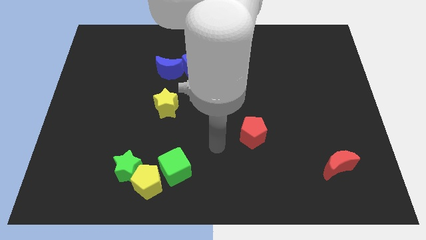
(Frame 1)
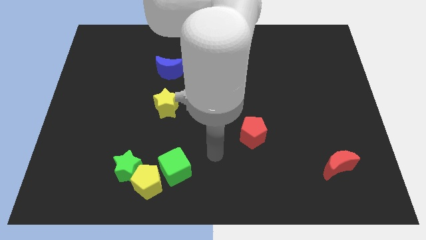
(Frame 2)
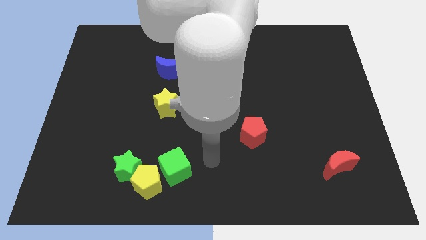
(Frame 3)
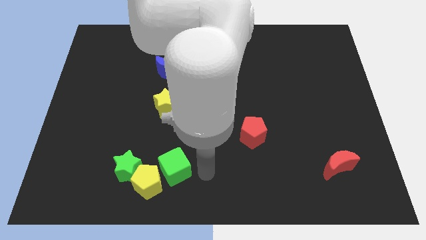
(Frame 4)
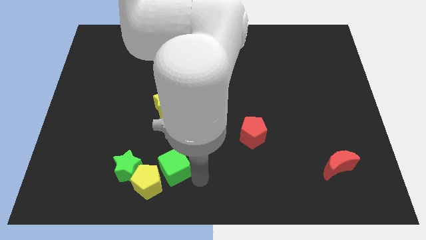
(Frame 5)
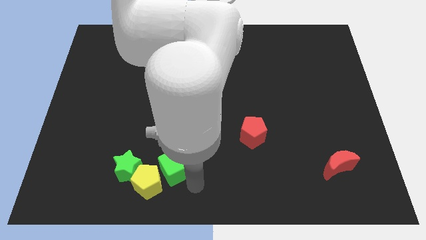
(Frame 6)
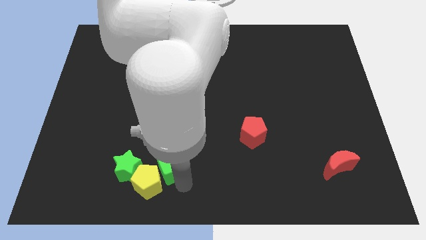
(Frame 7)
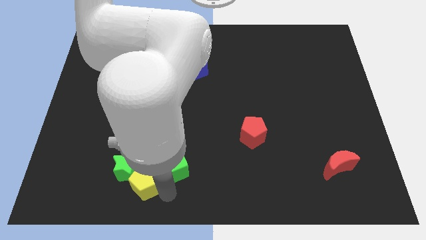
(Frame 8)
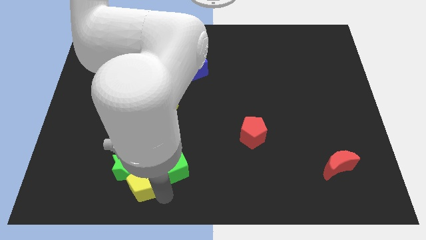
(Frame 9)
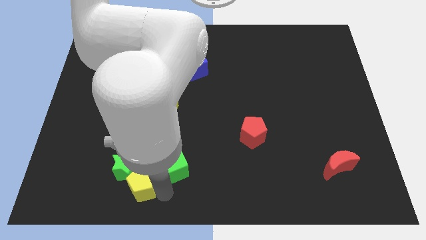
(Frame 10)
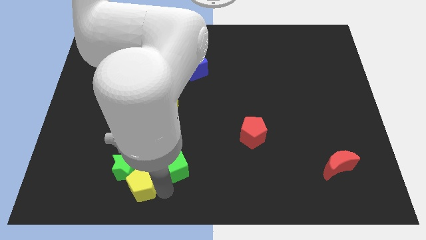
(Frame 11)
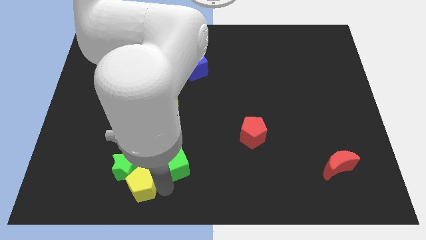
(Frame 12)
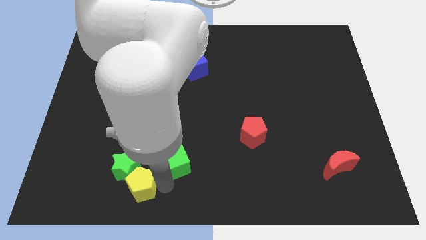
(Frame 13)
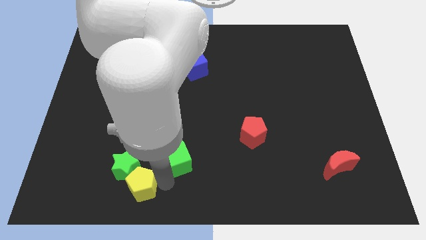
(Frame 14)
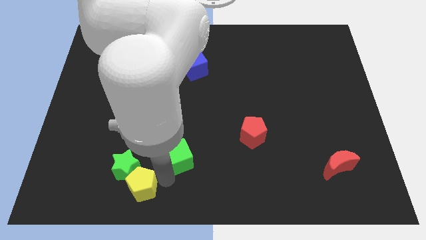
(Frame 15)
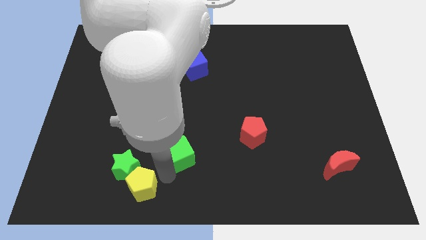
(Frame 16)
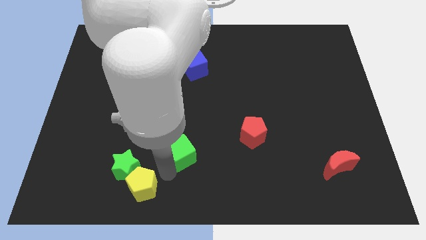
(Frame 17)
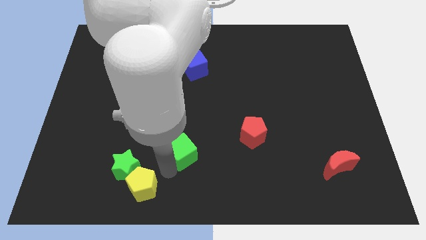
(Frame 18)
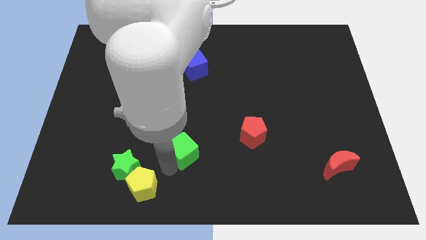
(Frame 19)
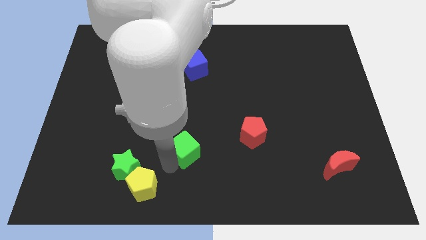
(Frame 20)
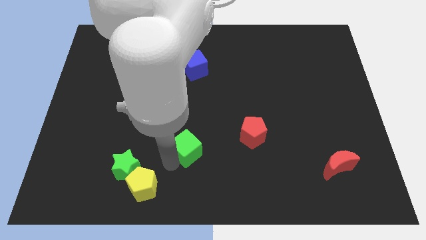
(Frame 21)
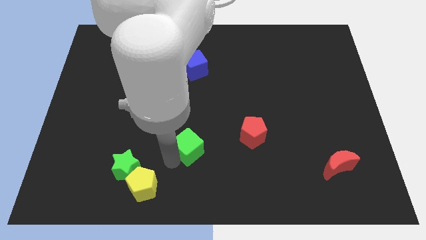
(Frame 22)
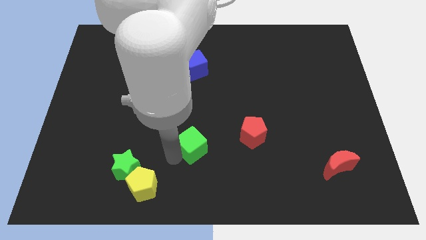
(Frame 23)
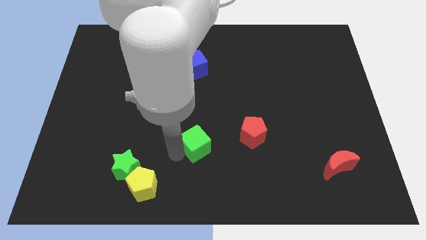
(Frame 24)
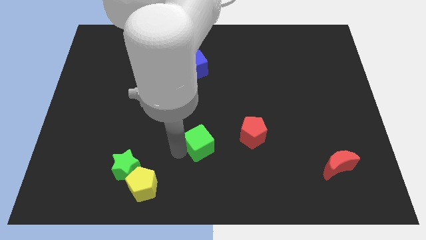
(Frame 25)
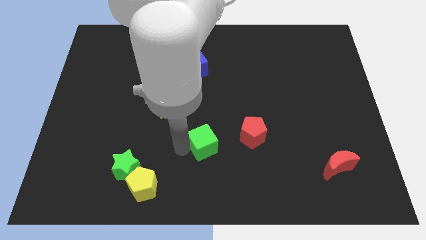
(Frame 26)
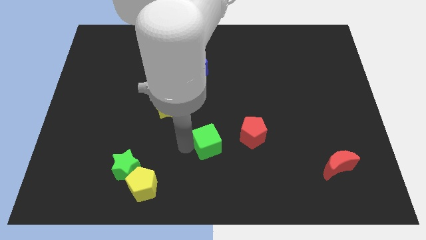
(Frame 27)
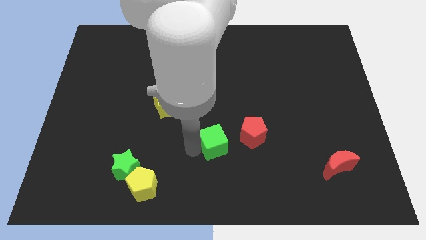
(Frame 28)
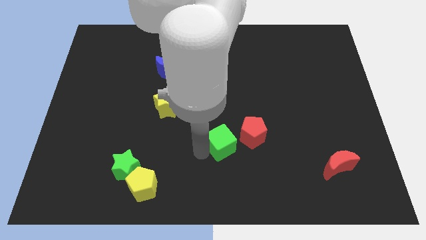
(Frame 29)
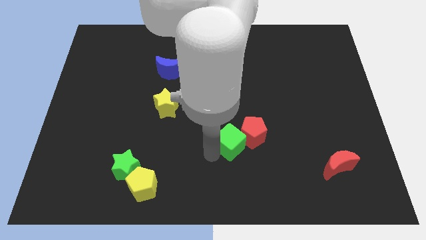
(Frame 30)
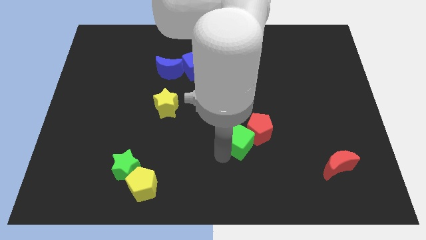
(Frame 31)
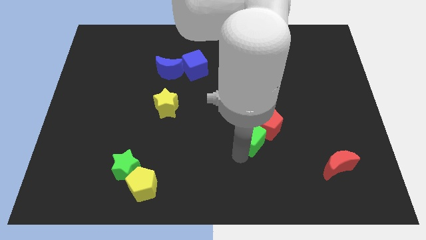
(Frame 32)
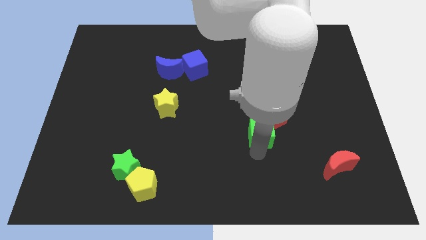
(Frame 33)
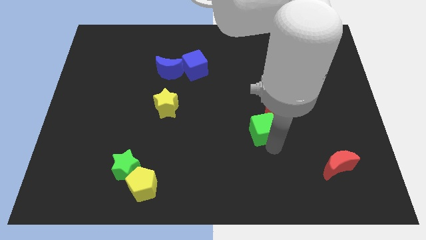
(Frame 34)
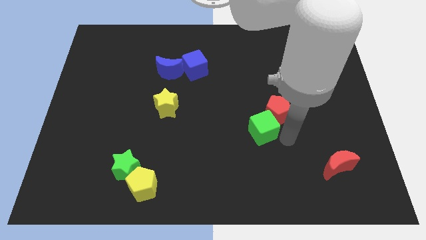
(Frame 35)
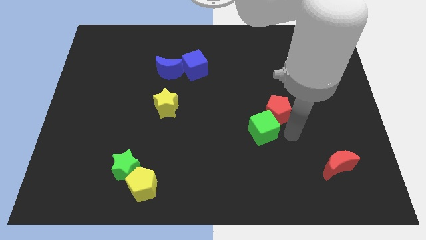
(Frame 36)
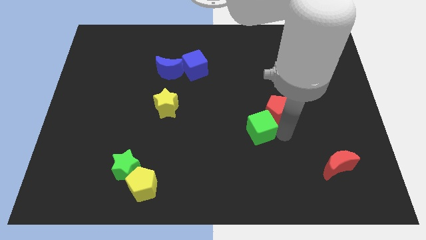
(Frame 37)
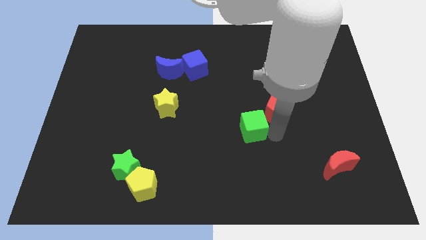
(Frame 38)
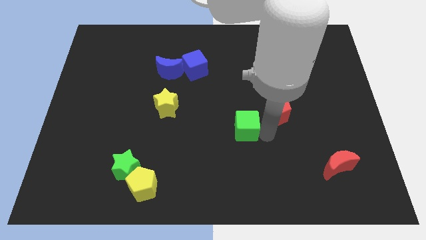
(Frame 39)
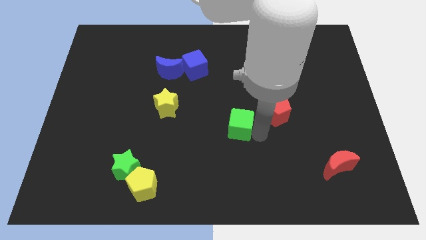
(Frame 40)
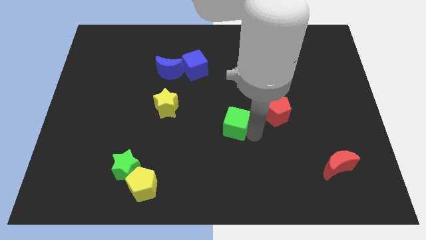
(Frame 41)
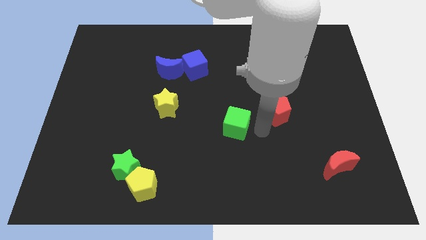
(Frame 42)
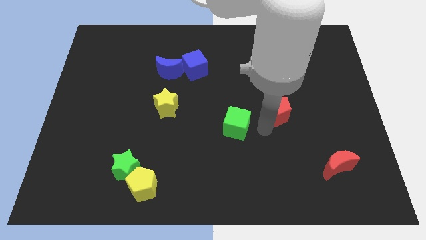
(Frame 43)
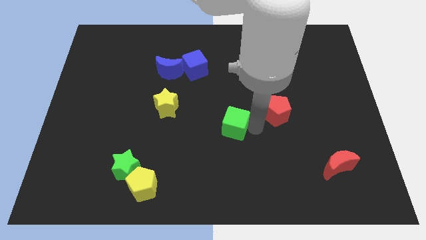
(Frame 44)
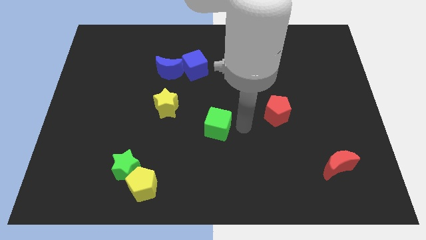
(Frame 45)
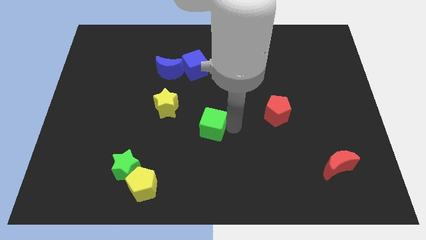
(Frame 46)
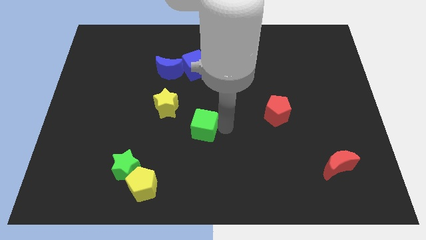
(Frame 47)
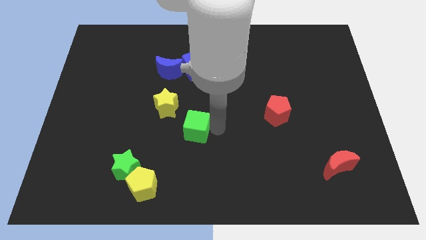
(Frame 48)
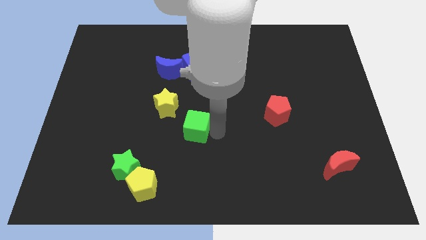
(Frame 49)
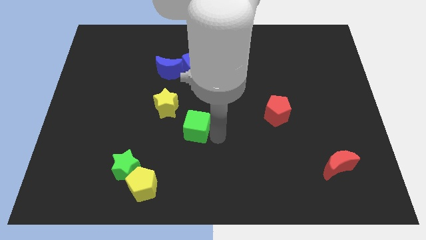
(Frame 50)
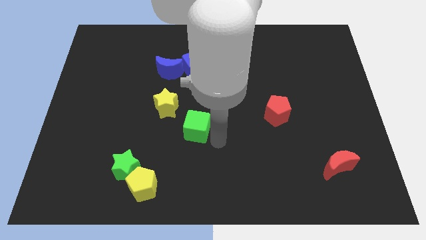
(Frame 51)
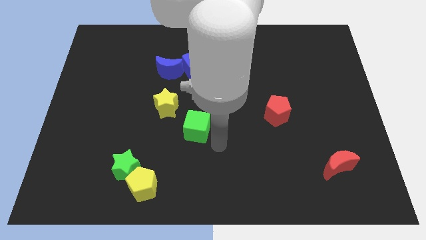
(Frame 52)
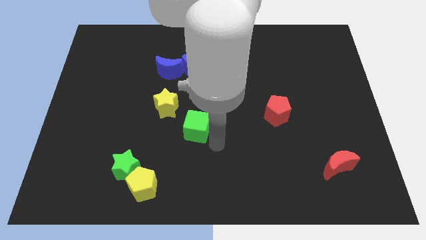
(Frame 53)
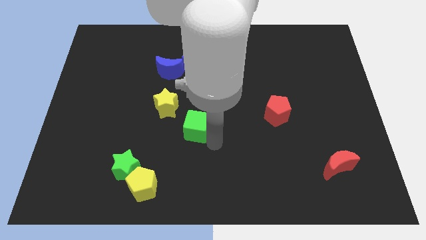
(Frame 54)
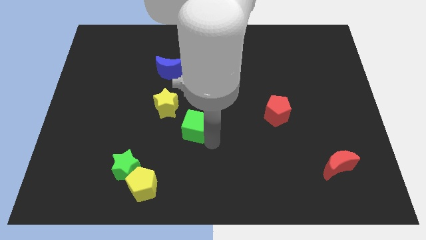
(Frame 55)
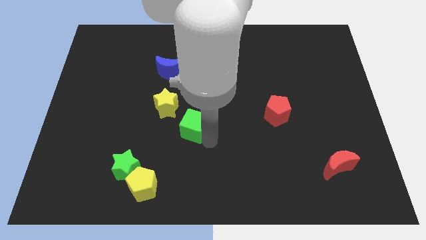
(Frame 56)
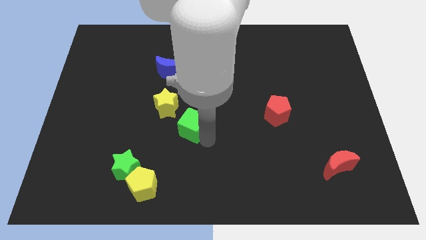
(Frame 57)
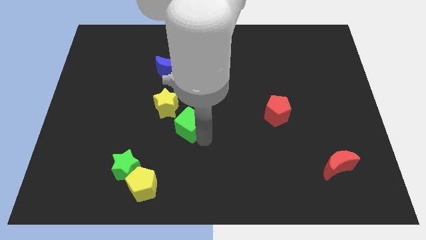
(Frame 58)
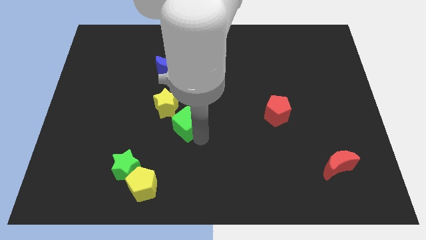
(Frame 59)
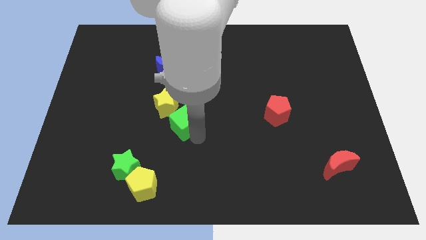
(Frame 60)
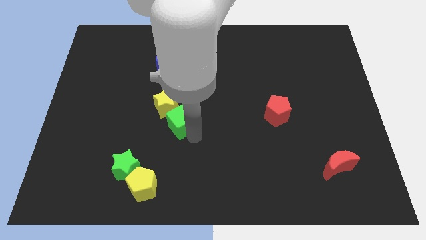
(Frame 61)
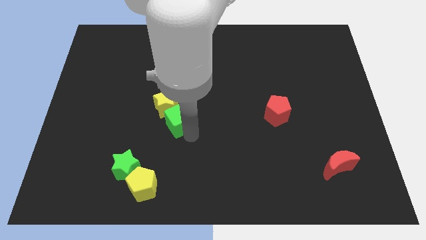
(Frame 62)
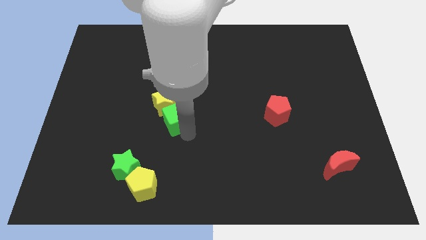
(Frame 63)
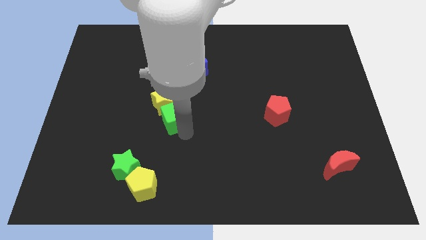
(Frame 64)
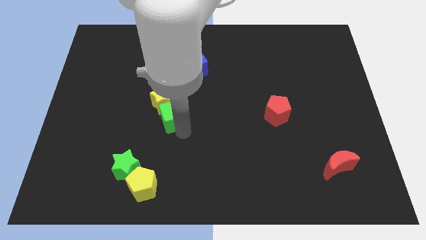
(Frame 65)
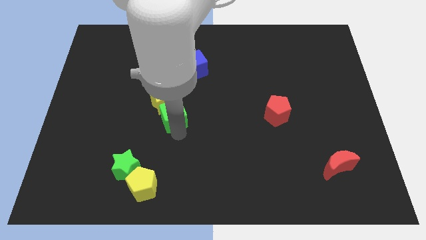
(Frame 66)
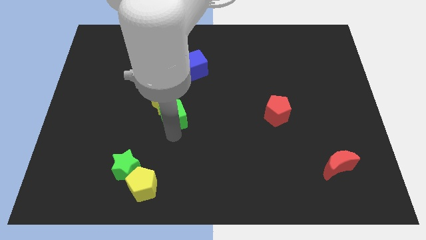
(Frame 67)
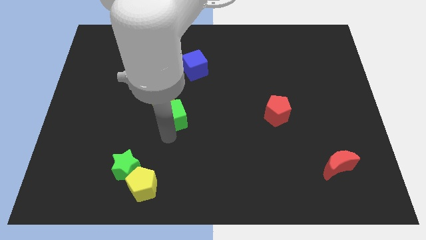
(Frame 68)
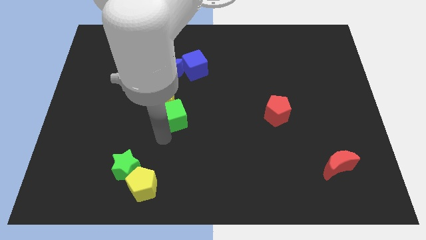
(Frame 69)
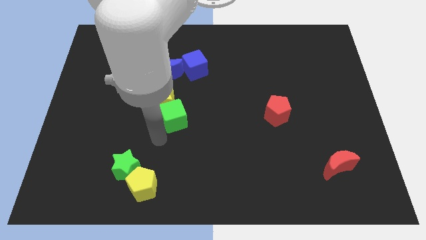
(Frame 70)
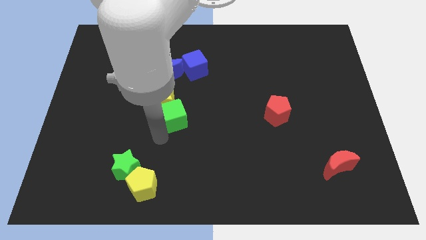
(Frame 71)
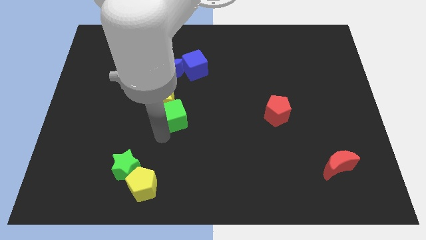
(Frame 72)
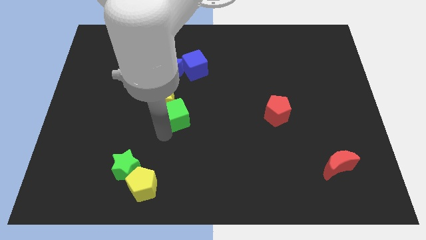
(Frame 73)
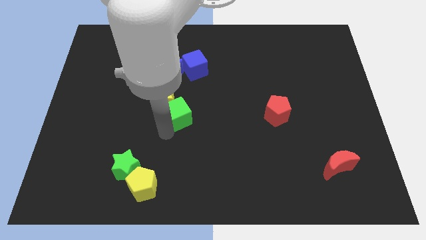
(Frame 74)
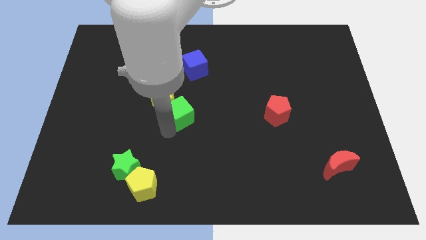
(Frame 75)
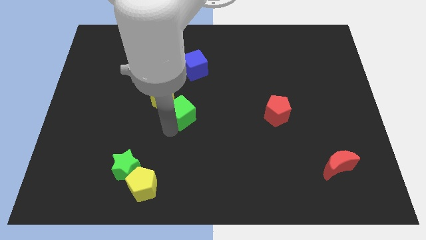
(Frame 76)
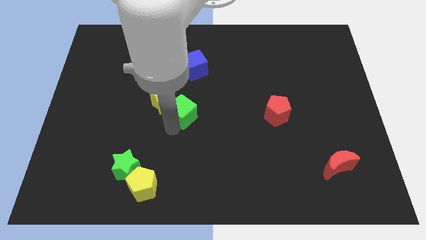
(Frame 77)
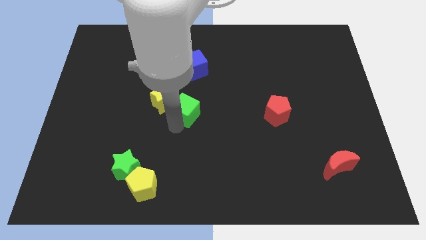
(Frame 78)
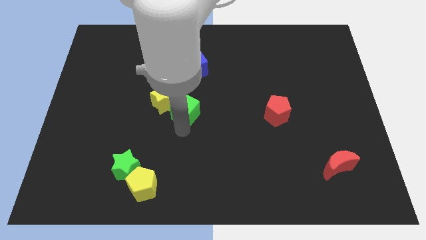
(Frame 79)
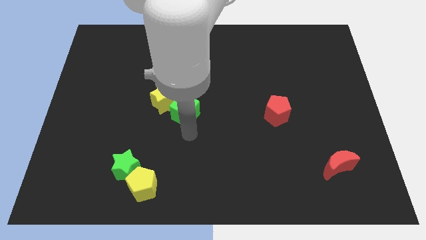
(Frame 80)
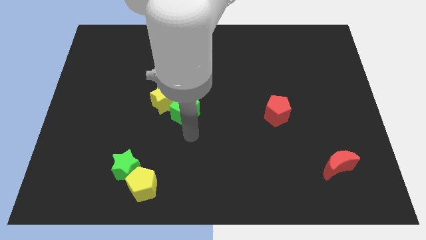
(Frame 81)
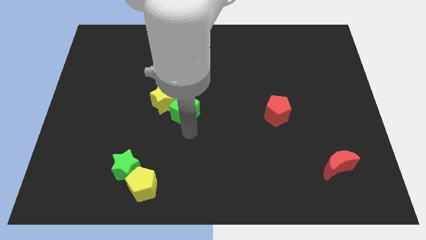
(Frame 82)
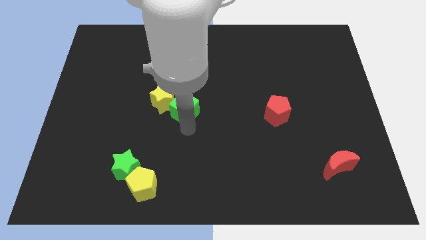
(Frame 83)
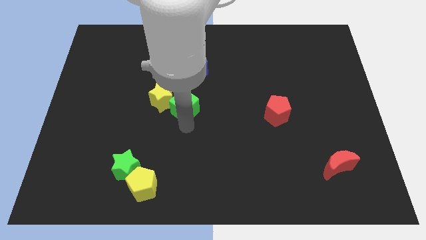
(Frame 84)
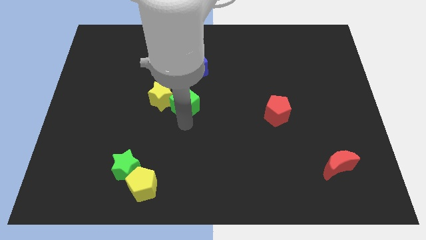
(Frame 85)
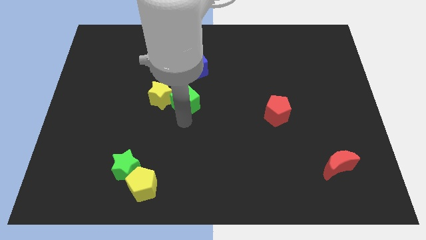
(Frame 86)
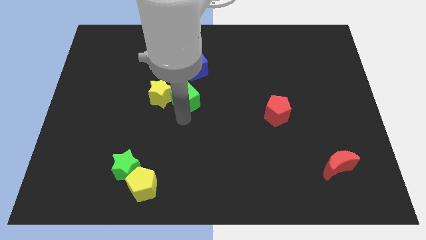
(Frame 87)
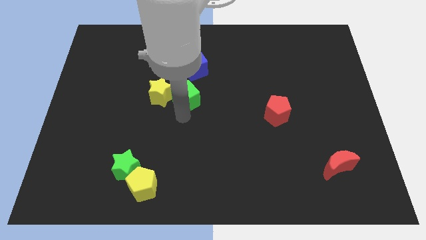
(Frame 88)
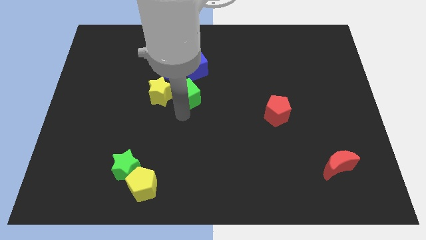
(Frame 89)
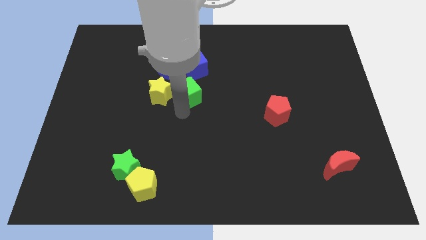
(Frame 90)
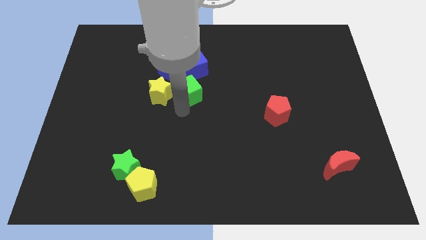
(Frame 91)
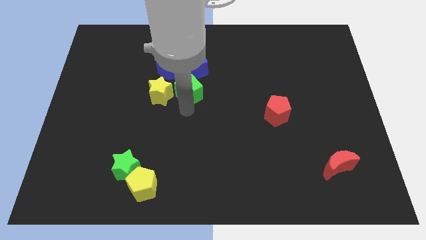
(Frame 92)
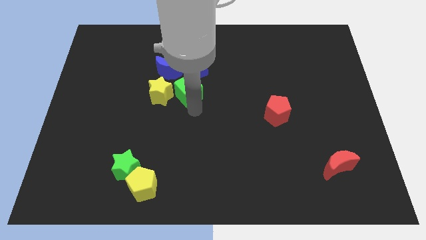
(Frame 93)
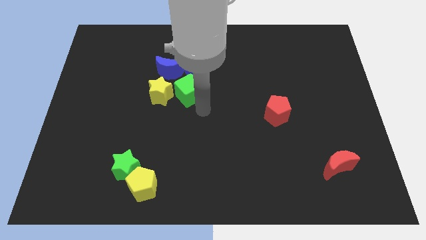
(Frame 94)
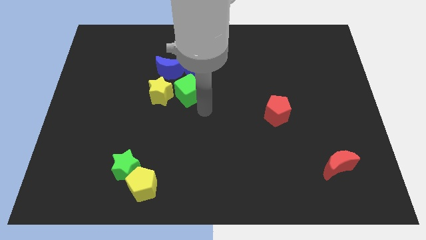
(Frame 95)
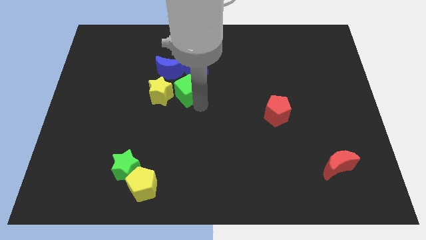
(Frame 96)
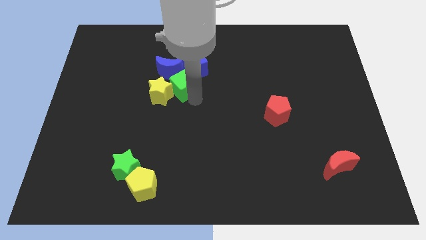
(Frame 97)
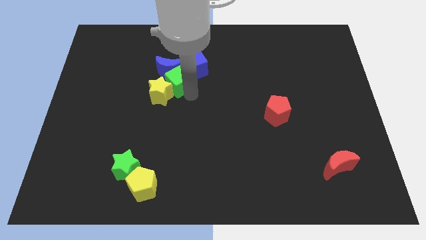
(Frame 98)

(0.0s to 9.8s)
move the green cube towards the blue moon
